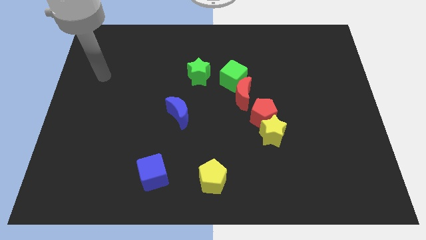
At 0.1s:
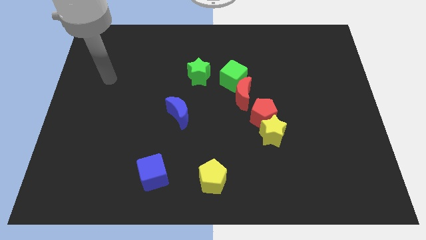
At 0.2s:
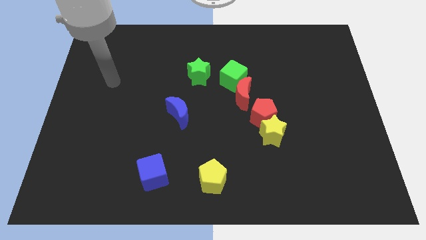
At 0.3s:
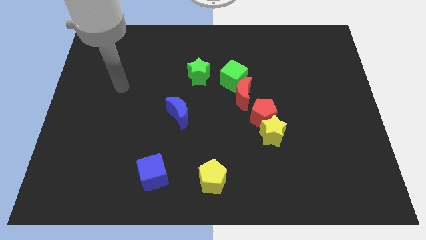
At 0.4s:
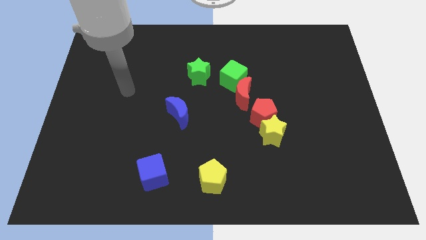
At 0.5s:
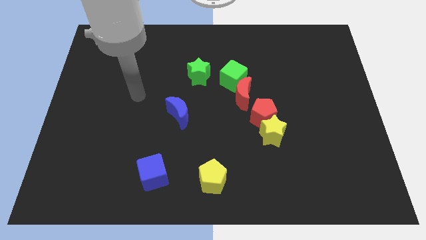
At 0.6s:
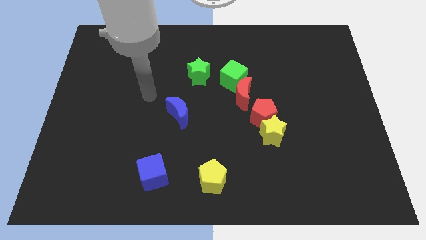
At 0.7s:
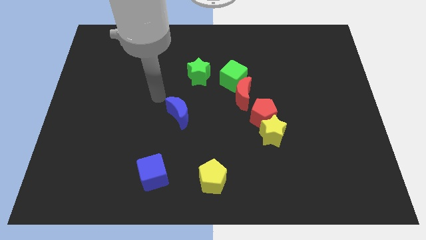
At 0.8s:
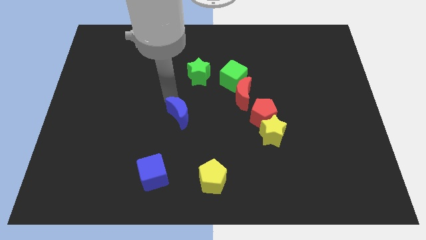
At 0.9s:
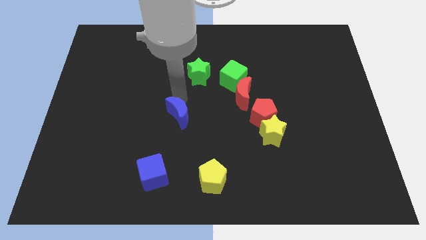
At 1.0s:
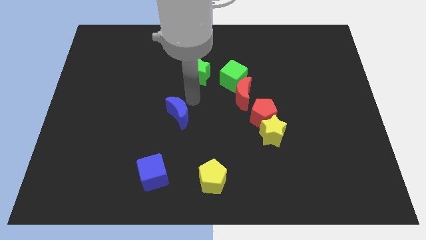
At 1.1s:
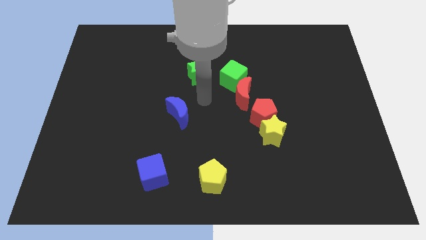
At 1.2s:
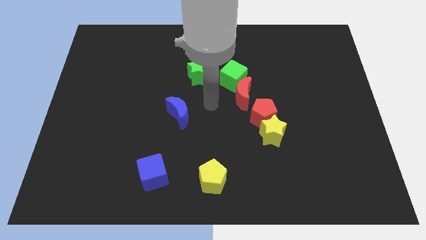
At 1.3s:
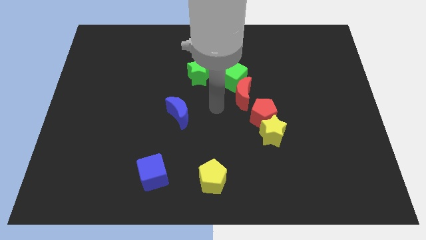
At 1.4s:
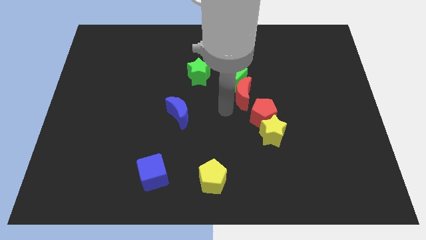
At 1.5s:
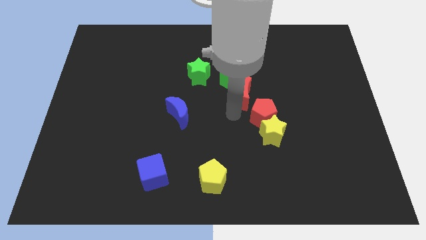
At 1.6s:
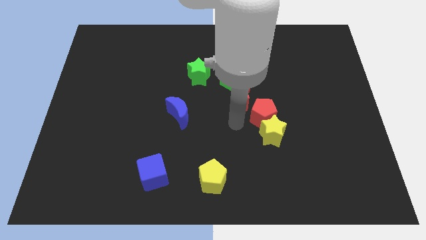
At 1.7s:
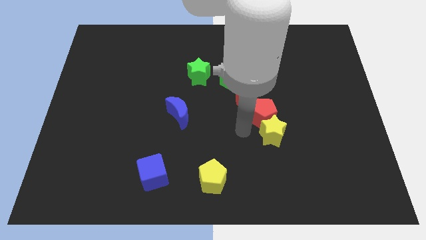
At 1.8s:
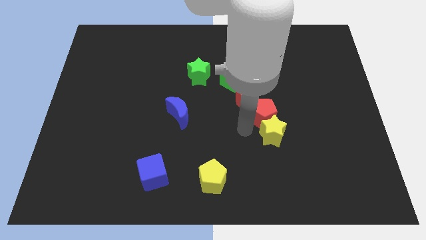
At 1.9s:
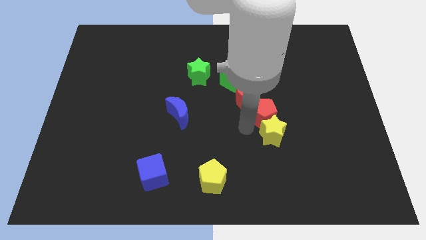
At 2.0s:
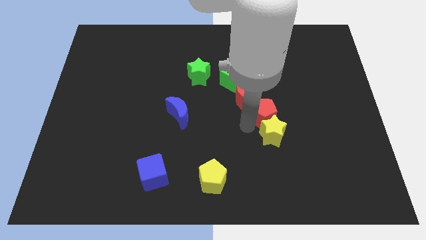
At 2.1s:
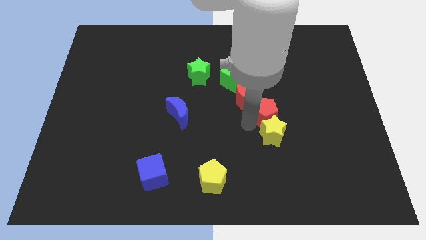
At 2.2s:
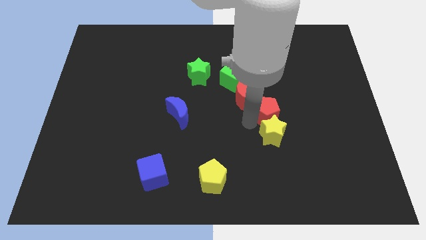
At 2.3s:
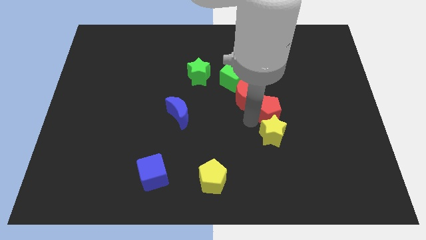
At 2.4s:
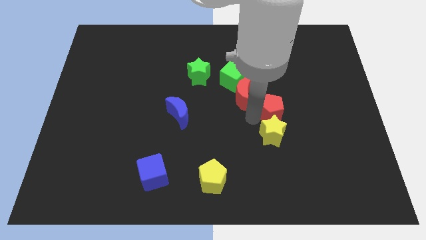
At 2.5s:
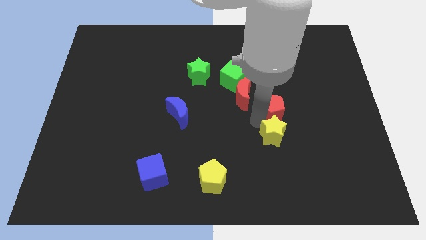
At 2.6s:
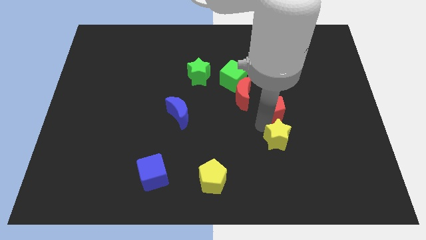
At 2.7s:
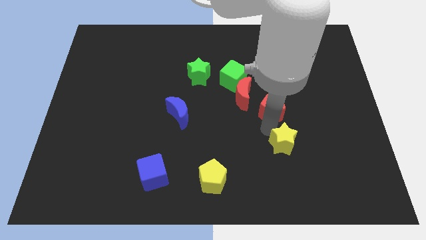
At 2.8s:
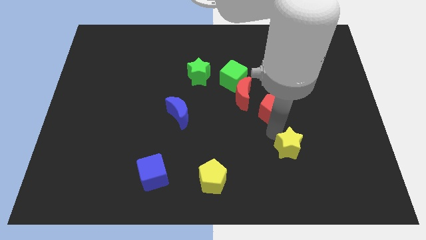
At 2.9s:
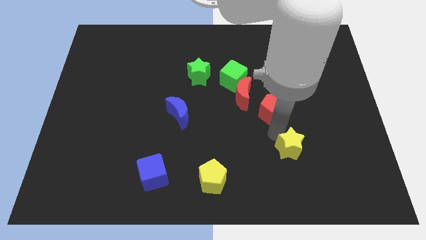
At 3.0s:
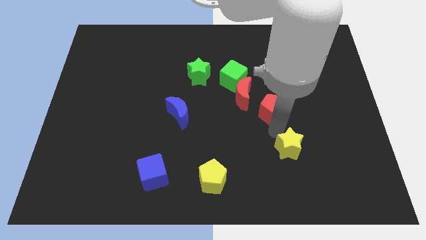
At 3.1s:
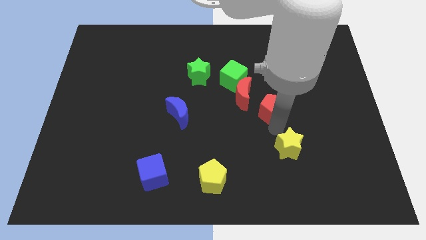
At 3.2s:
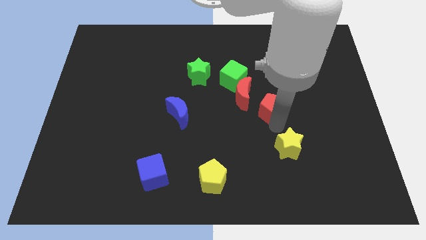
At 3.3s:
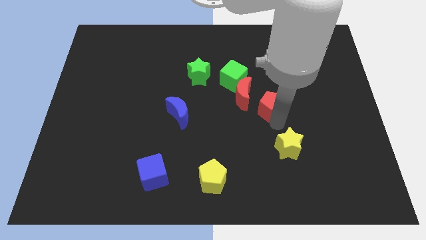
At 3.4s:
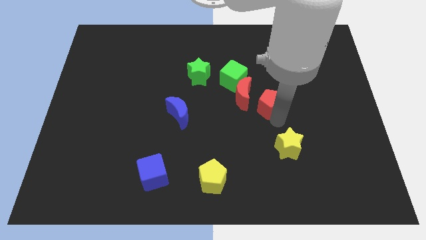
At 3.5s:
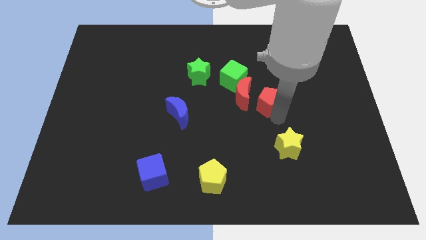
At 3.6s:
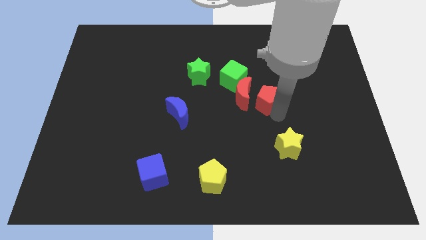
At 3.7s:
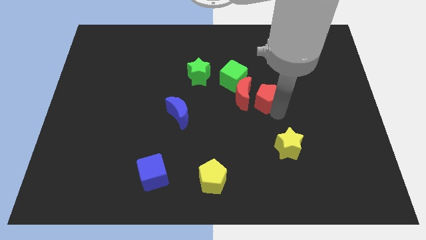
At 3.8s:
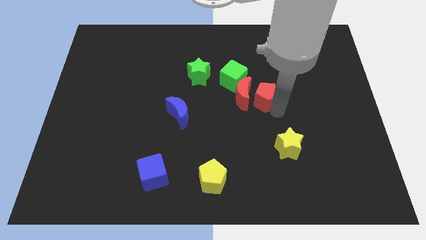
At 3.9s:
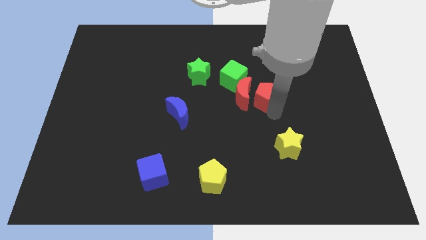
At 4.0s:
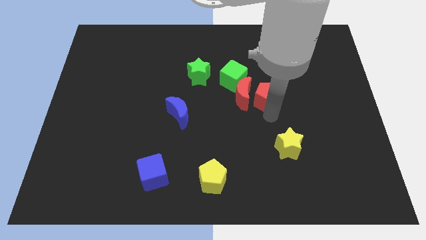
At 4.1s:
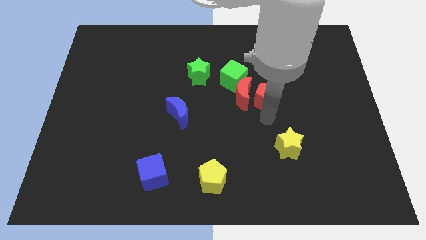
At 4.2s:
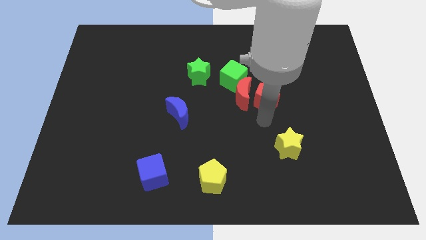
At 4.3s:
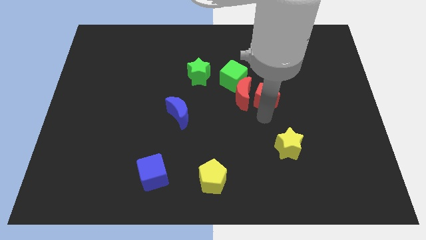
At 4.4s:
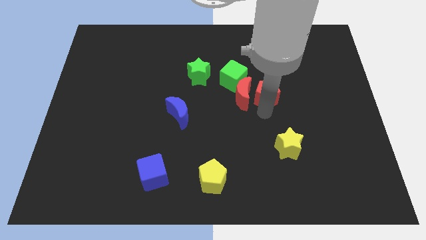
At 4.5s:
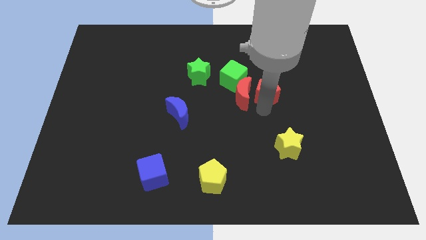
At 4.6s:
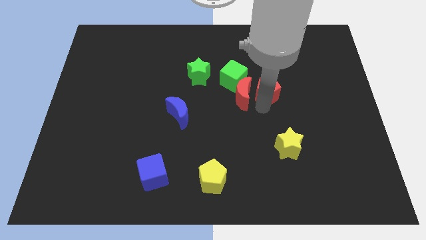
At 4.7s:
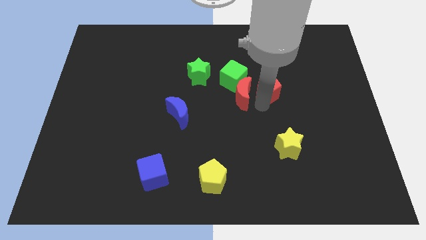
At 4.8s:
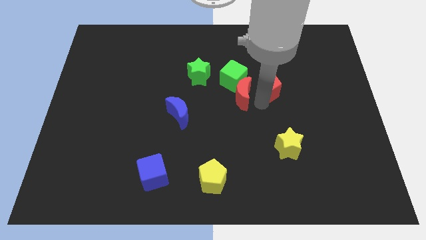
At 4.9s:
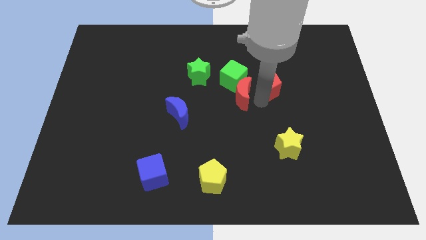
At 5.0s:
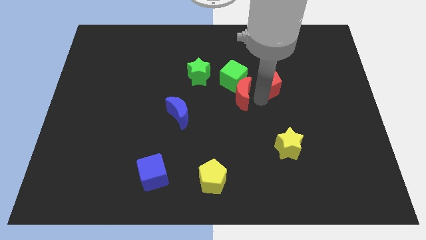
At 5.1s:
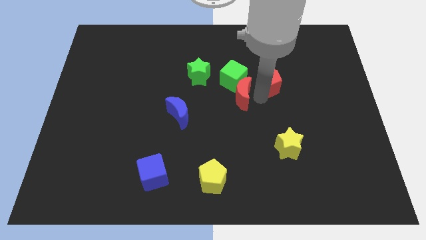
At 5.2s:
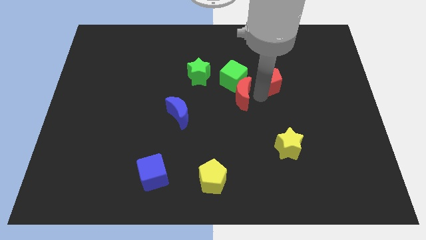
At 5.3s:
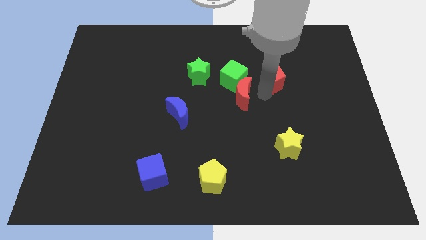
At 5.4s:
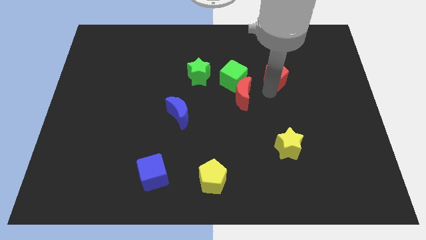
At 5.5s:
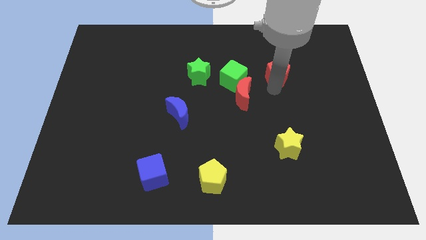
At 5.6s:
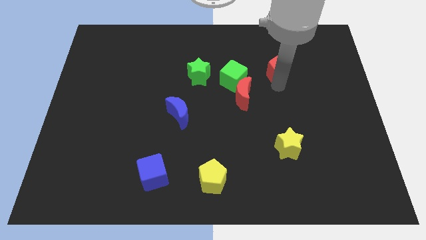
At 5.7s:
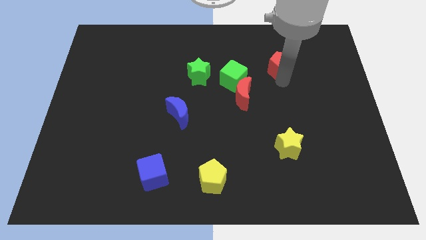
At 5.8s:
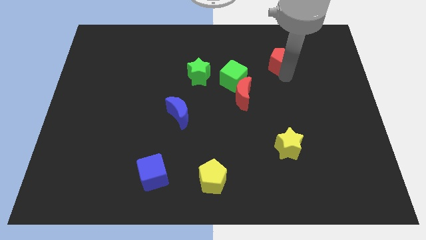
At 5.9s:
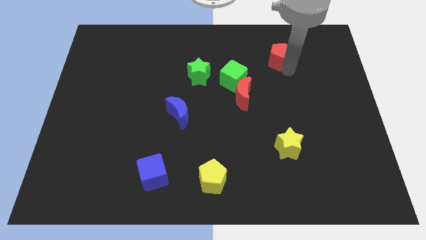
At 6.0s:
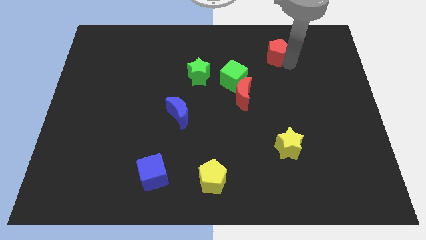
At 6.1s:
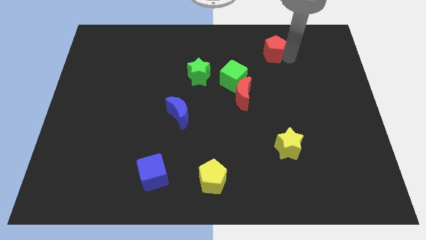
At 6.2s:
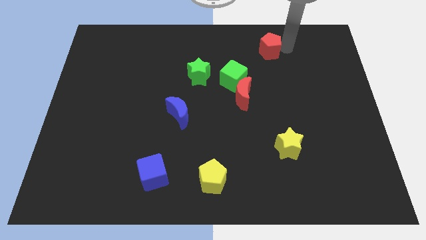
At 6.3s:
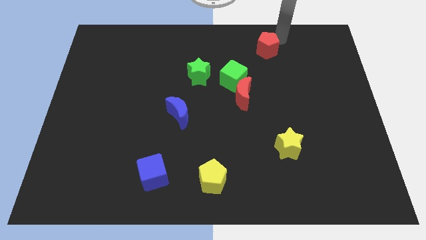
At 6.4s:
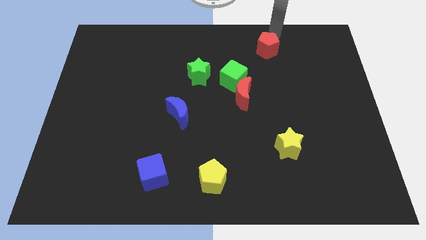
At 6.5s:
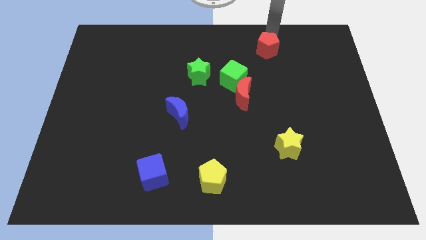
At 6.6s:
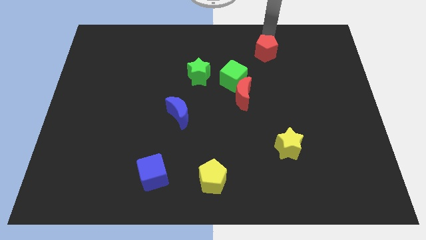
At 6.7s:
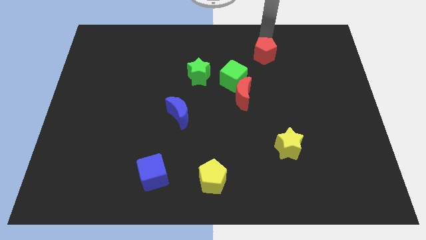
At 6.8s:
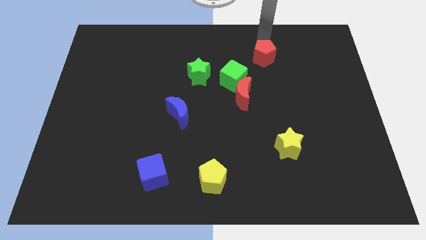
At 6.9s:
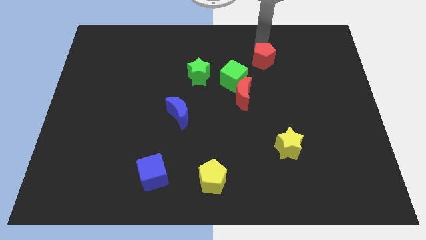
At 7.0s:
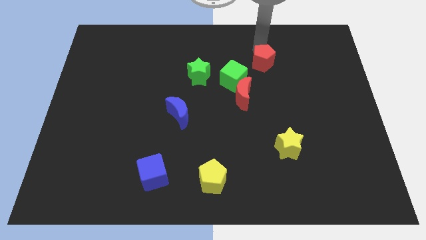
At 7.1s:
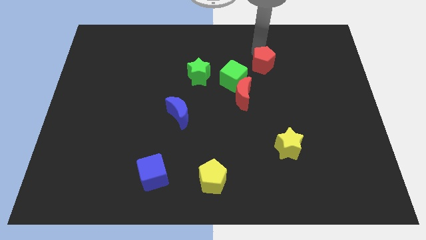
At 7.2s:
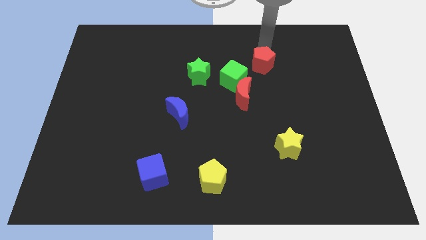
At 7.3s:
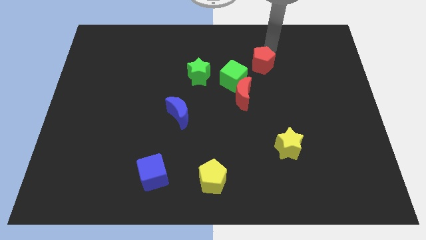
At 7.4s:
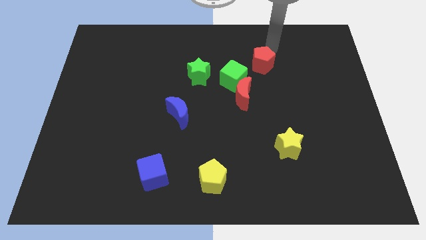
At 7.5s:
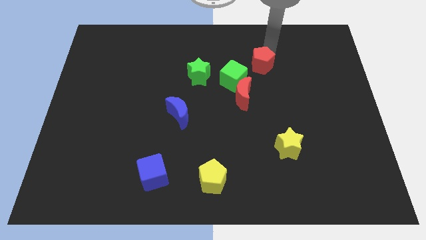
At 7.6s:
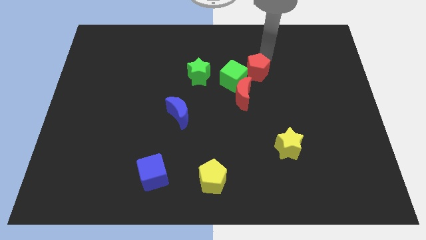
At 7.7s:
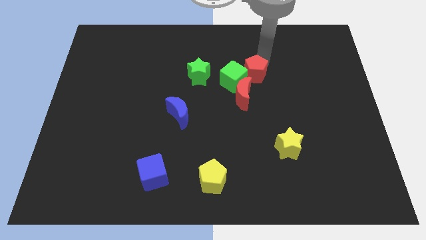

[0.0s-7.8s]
slide the red pentagon to the green cube
